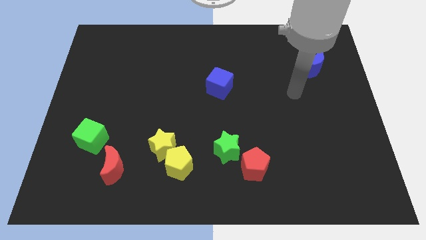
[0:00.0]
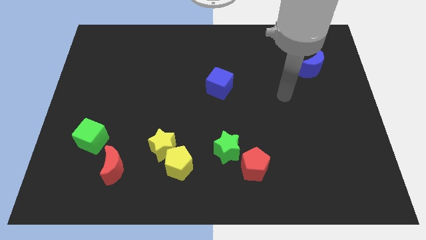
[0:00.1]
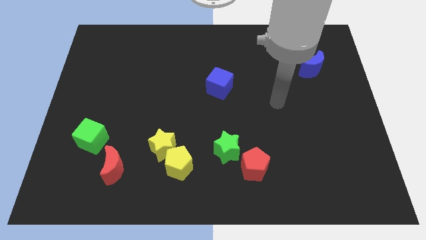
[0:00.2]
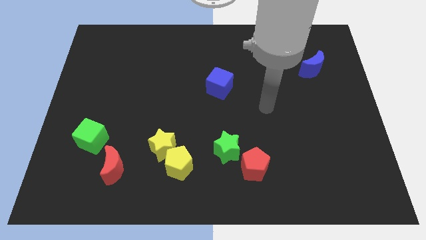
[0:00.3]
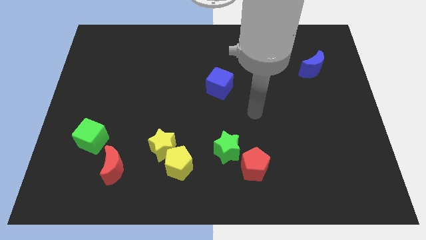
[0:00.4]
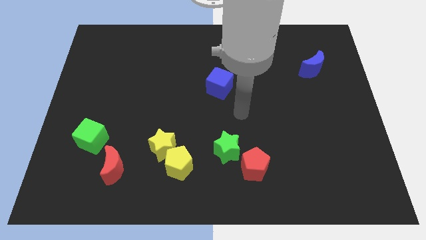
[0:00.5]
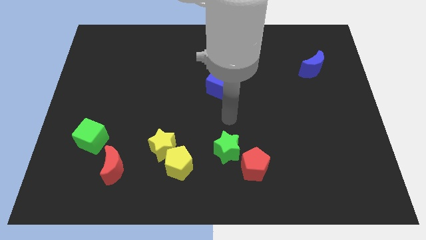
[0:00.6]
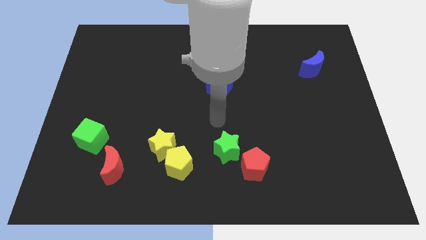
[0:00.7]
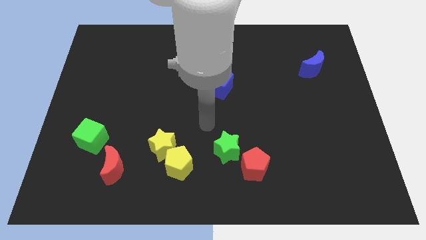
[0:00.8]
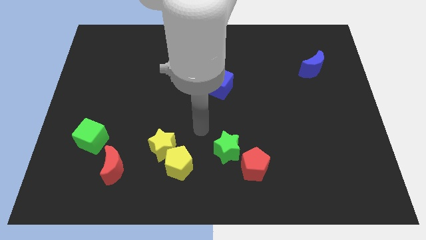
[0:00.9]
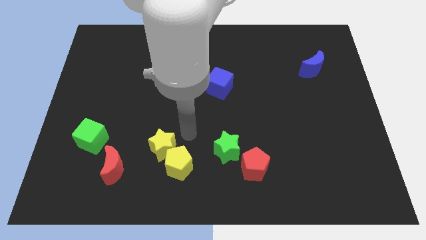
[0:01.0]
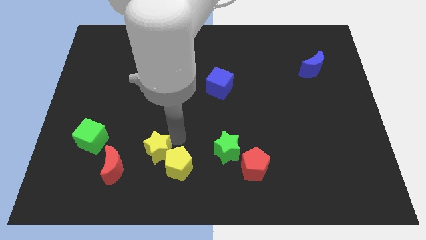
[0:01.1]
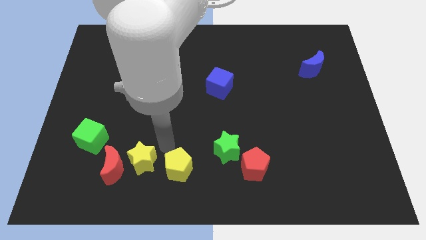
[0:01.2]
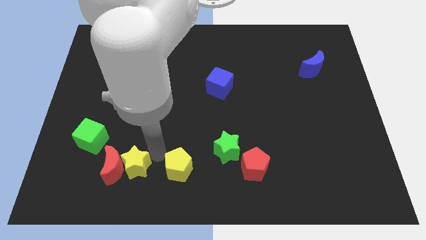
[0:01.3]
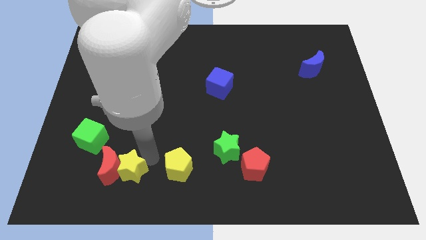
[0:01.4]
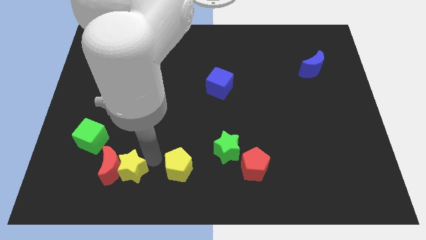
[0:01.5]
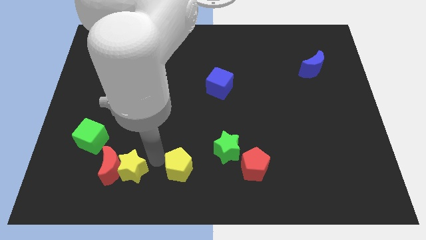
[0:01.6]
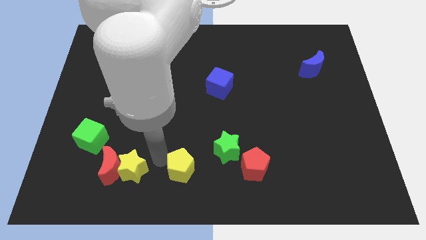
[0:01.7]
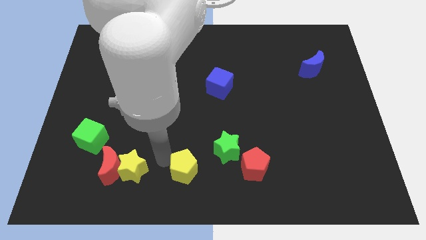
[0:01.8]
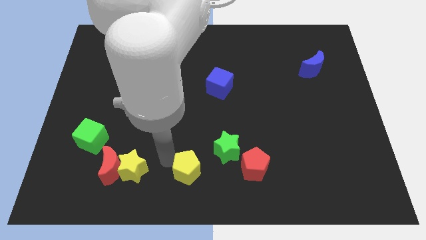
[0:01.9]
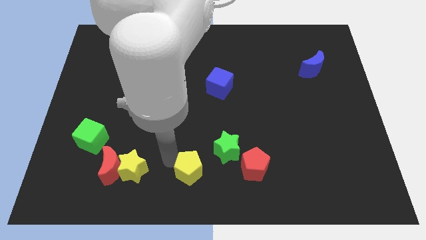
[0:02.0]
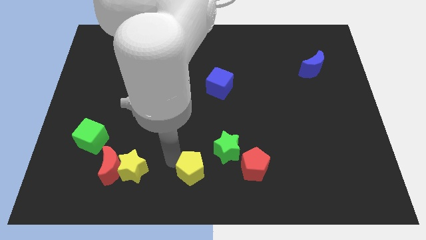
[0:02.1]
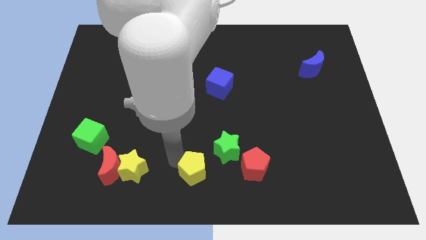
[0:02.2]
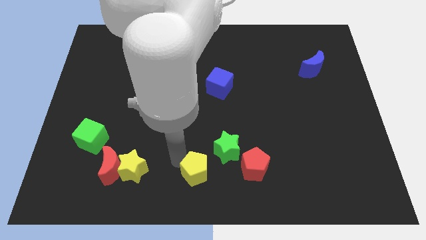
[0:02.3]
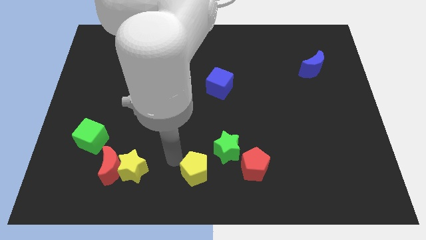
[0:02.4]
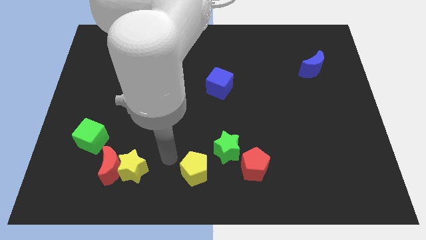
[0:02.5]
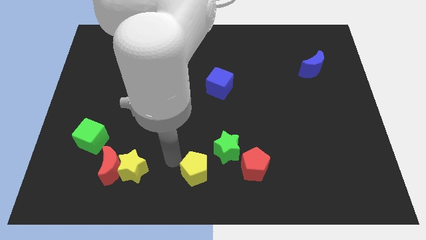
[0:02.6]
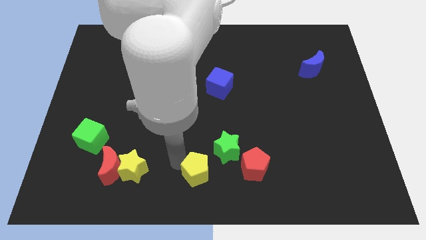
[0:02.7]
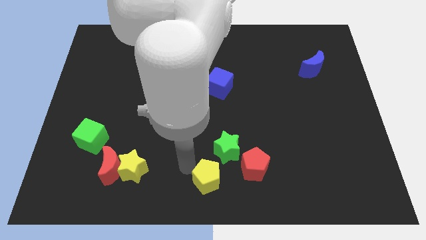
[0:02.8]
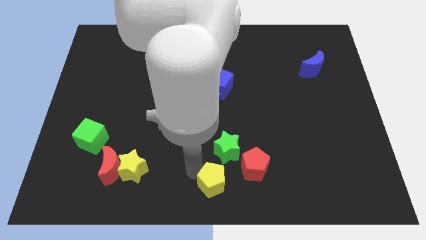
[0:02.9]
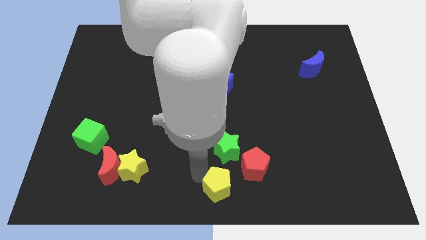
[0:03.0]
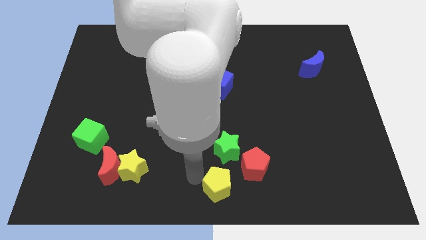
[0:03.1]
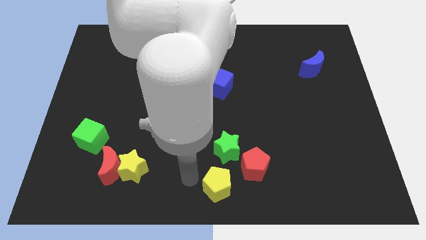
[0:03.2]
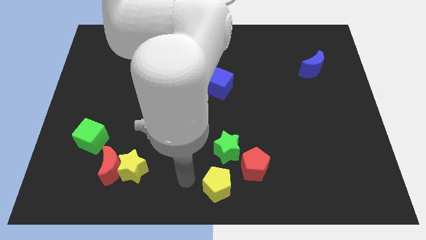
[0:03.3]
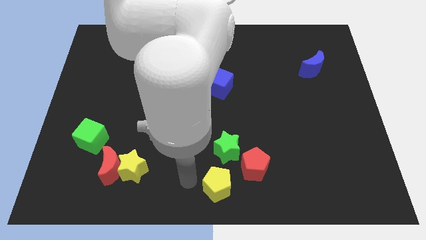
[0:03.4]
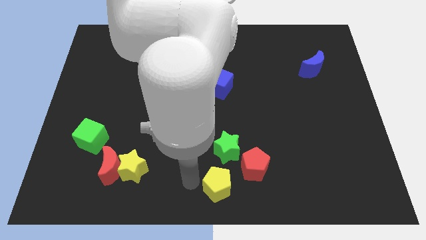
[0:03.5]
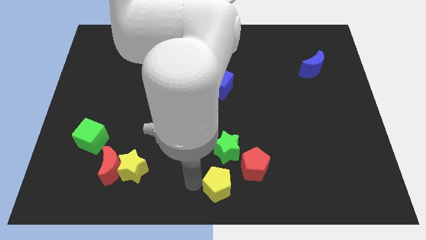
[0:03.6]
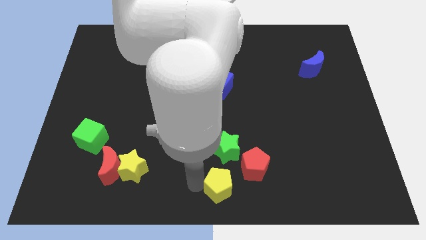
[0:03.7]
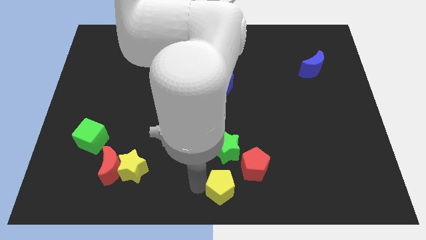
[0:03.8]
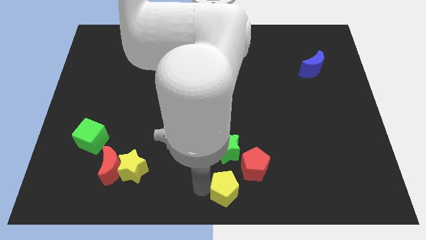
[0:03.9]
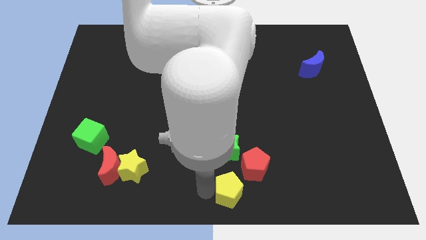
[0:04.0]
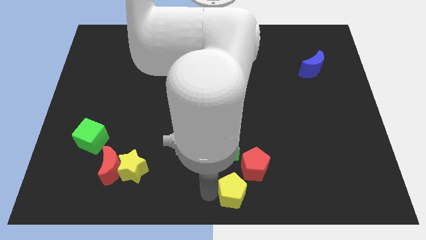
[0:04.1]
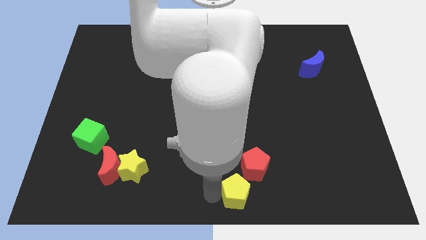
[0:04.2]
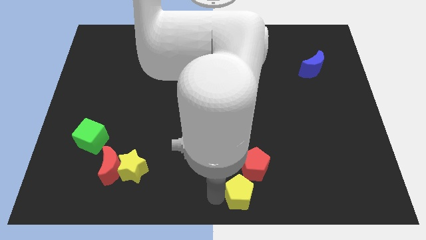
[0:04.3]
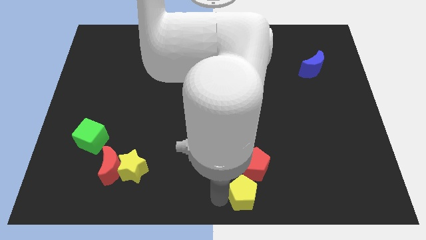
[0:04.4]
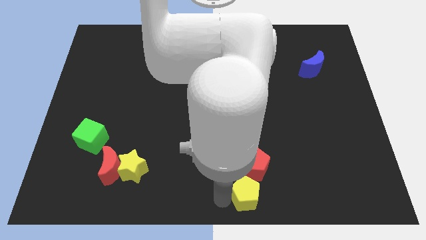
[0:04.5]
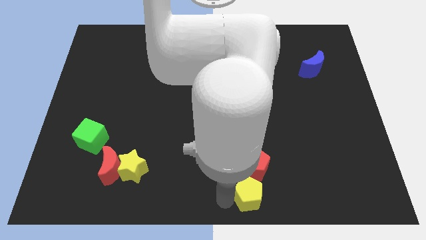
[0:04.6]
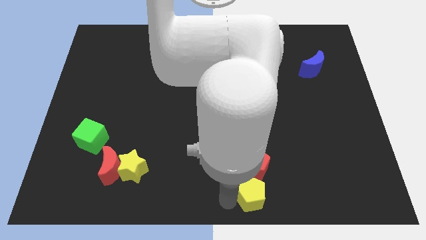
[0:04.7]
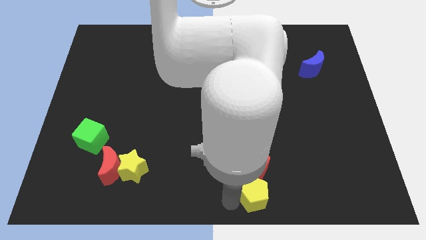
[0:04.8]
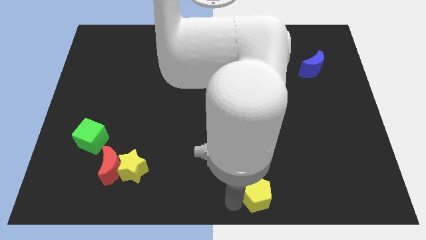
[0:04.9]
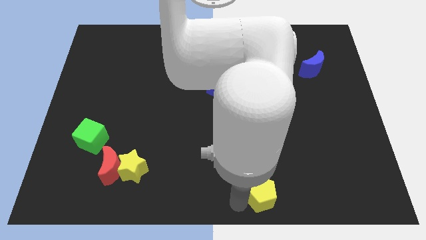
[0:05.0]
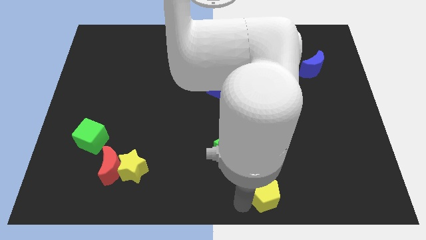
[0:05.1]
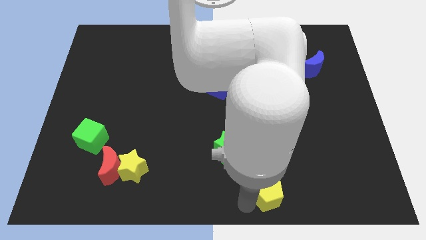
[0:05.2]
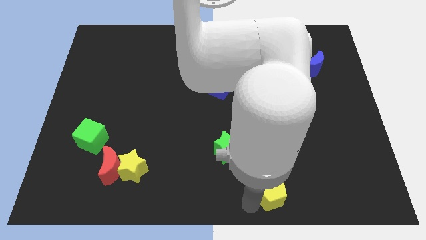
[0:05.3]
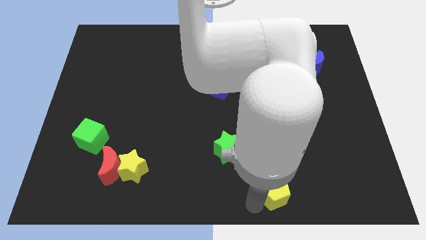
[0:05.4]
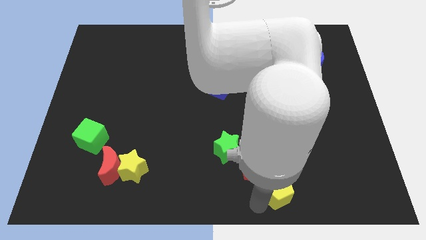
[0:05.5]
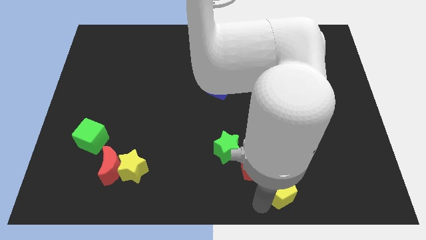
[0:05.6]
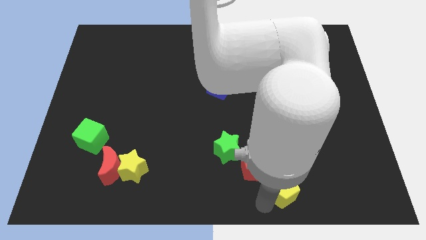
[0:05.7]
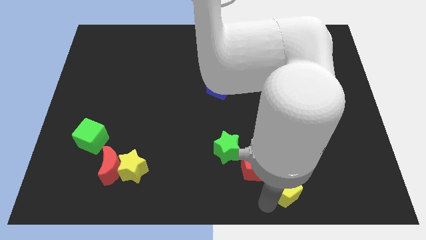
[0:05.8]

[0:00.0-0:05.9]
push the yellow pentagon right

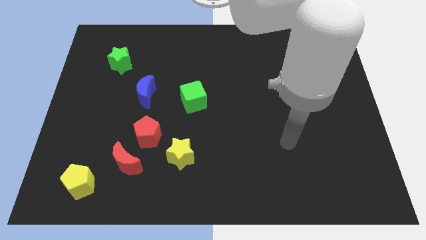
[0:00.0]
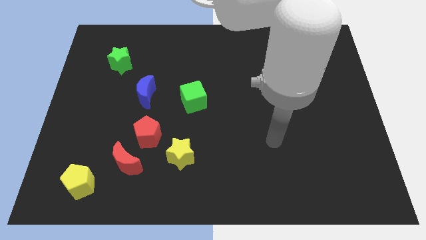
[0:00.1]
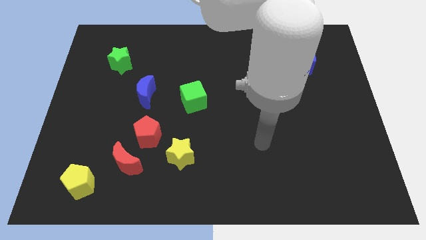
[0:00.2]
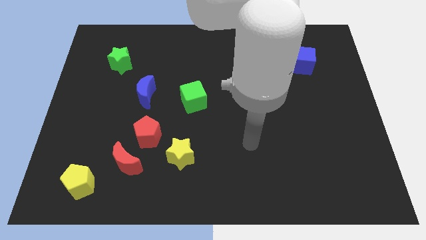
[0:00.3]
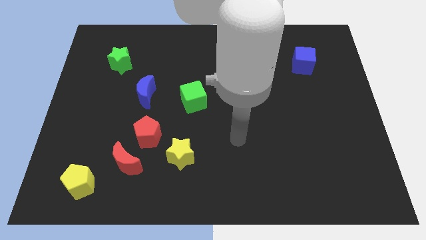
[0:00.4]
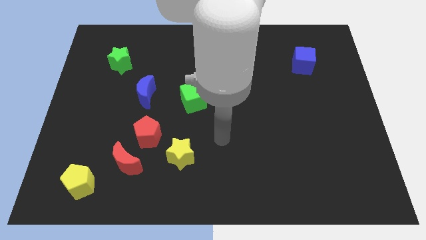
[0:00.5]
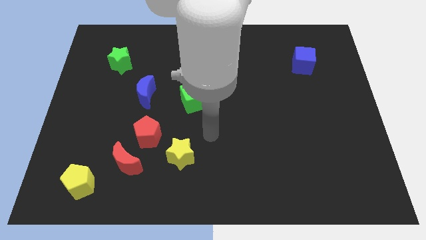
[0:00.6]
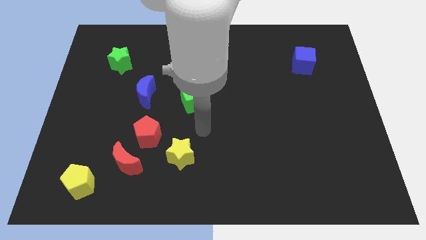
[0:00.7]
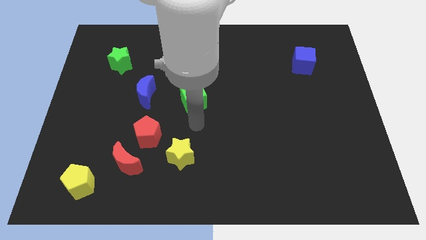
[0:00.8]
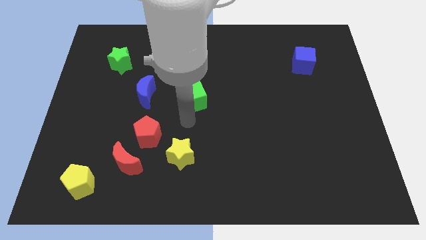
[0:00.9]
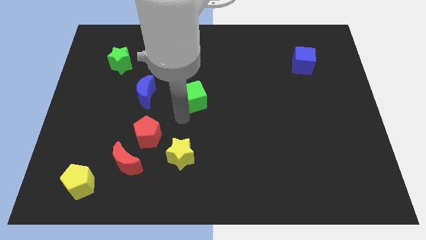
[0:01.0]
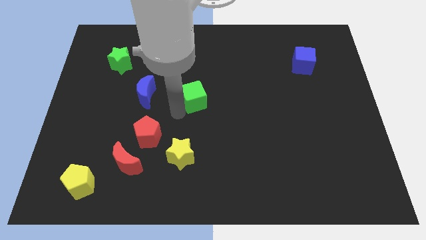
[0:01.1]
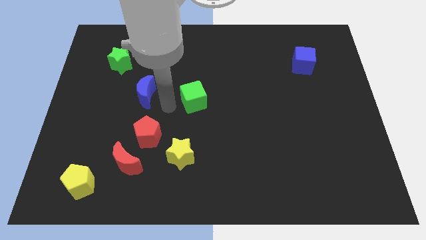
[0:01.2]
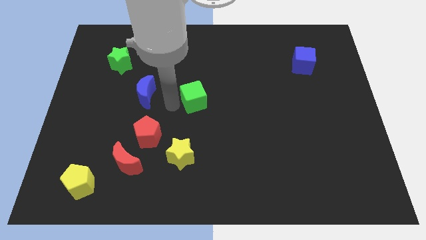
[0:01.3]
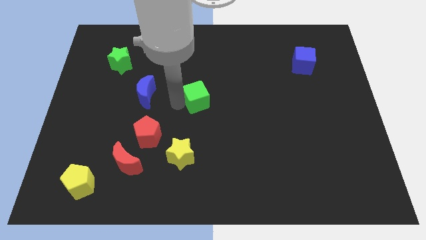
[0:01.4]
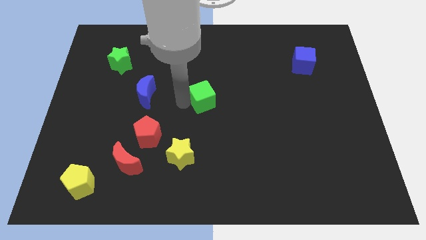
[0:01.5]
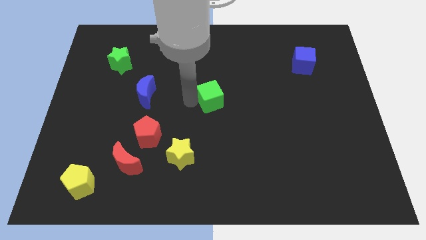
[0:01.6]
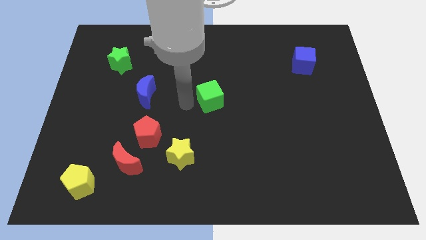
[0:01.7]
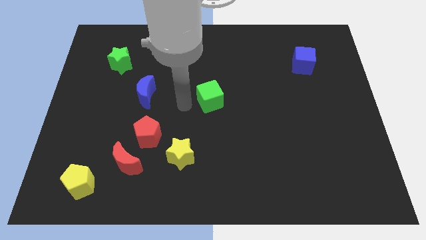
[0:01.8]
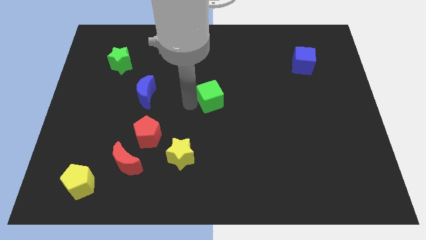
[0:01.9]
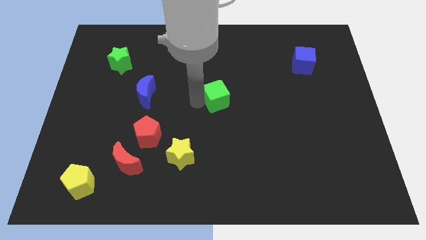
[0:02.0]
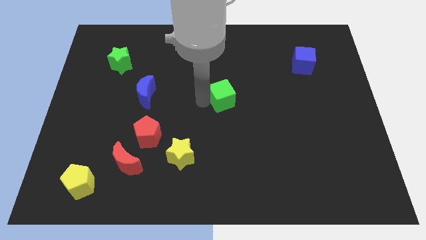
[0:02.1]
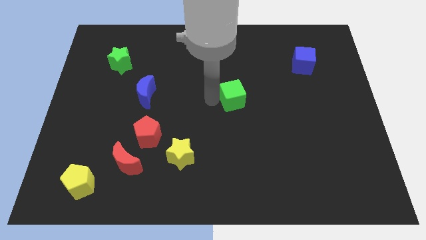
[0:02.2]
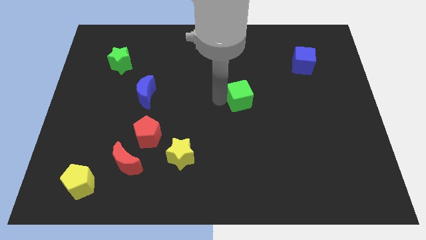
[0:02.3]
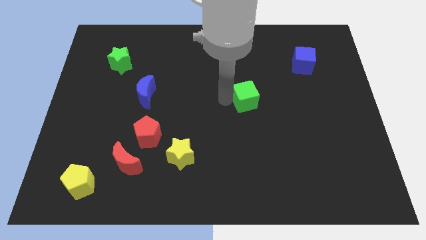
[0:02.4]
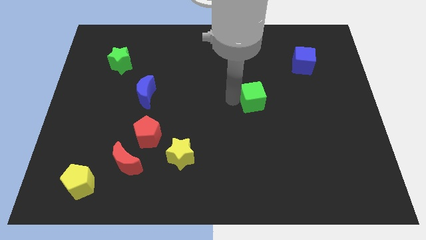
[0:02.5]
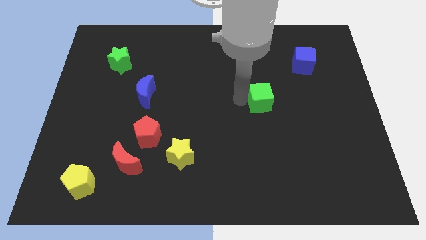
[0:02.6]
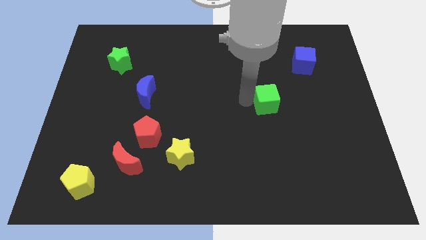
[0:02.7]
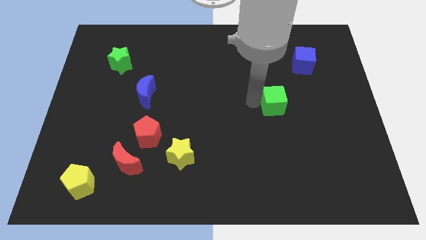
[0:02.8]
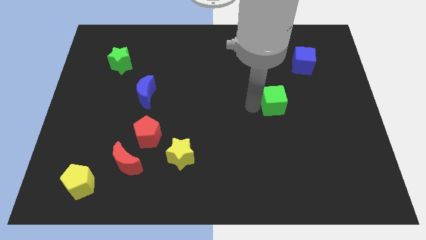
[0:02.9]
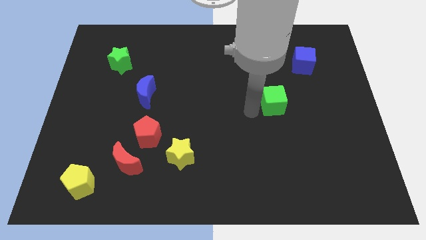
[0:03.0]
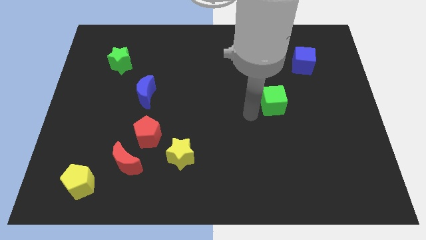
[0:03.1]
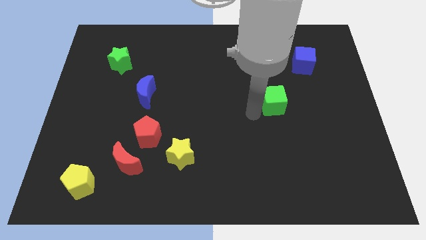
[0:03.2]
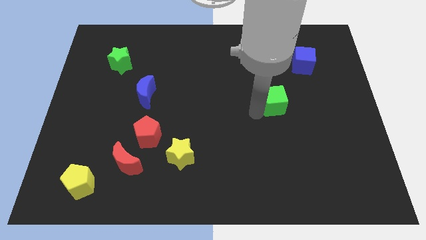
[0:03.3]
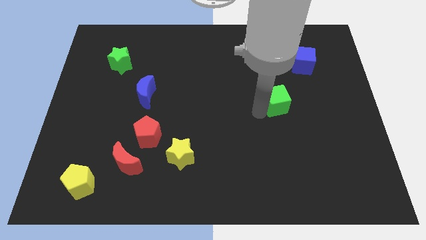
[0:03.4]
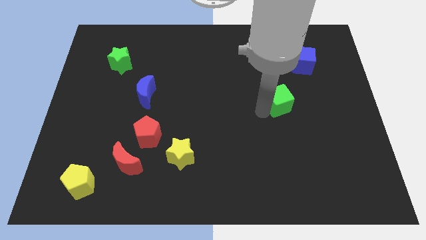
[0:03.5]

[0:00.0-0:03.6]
slide the green cube to the right
